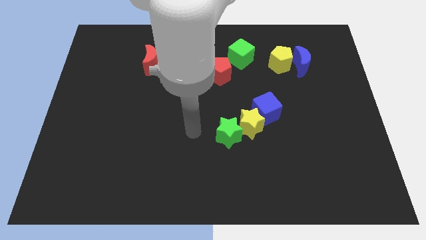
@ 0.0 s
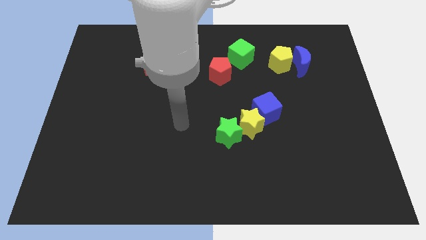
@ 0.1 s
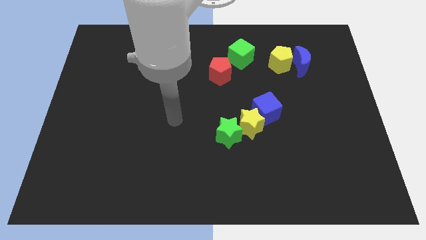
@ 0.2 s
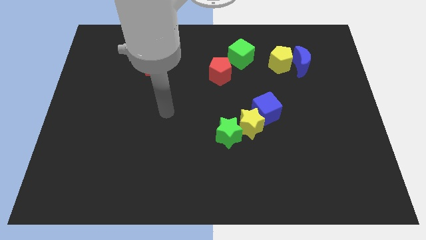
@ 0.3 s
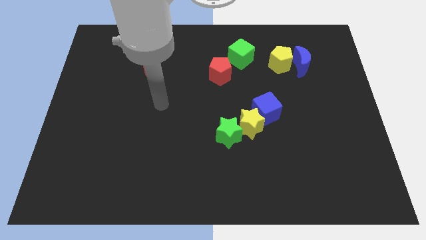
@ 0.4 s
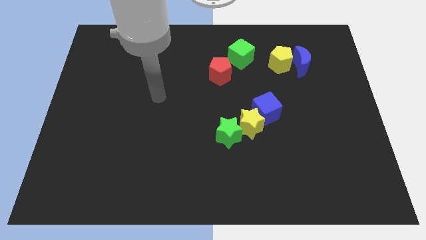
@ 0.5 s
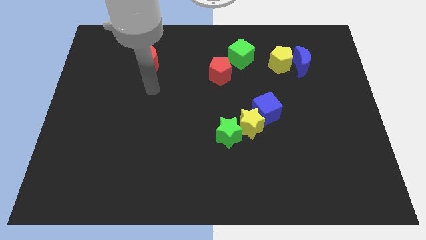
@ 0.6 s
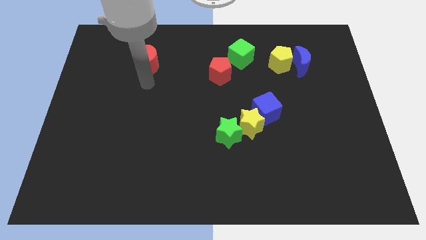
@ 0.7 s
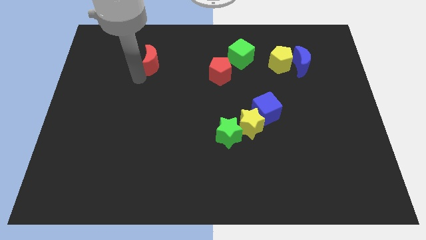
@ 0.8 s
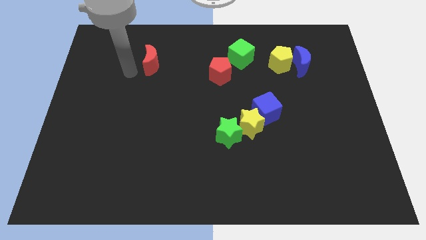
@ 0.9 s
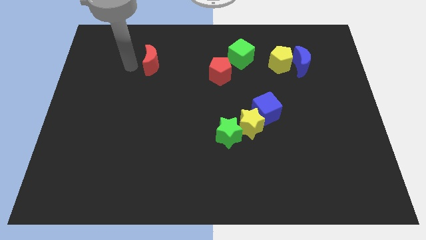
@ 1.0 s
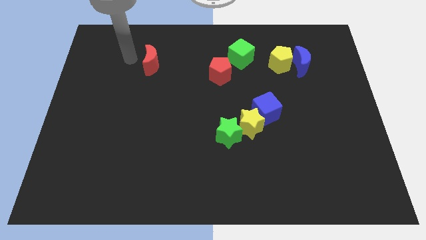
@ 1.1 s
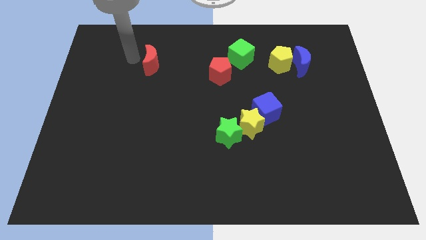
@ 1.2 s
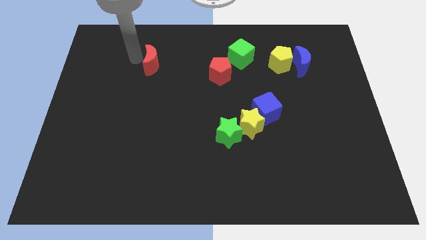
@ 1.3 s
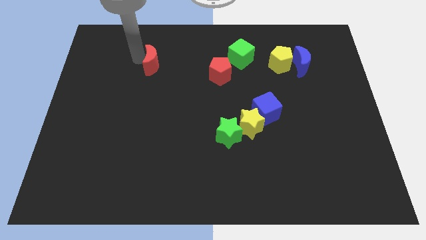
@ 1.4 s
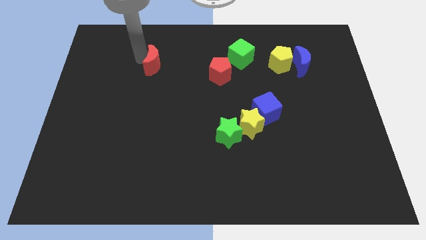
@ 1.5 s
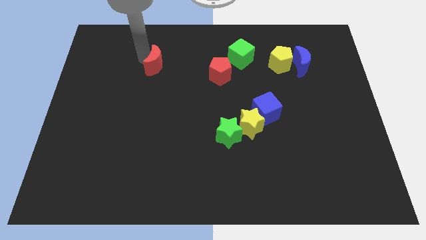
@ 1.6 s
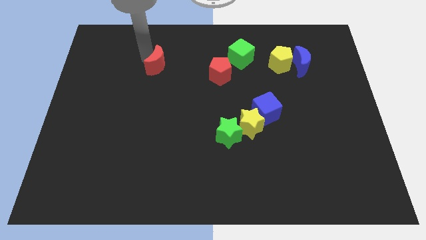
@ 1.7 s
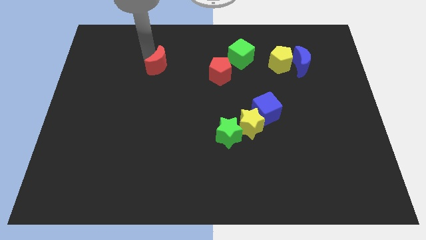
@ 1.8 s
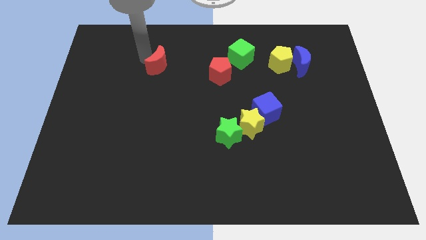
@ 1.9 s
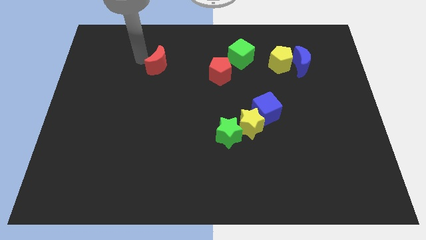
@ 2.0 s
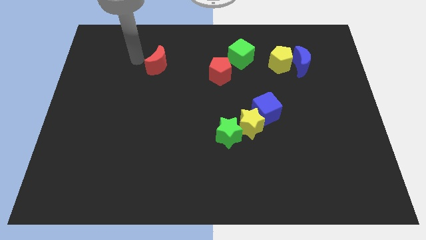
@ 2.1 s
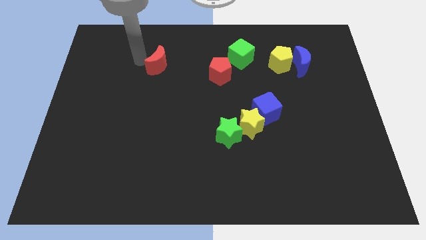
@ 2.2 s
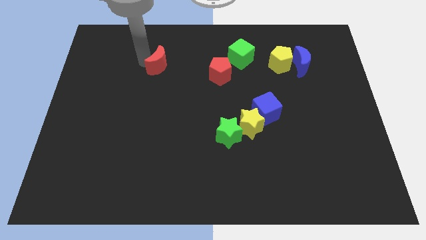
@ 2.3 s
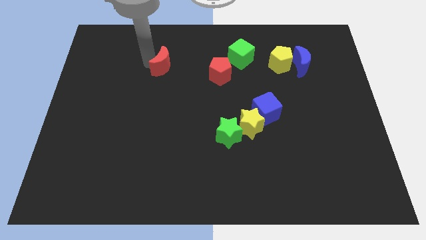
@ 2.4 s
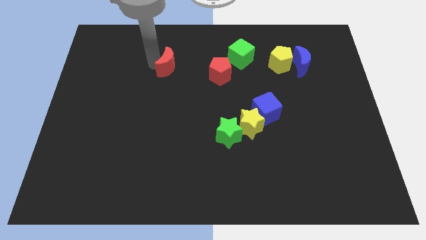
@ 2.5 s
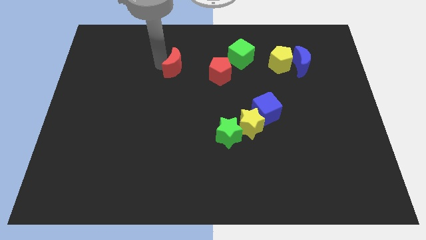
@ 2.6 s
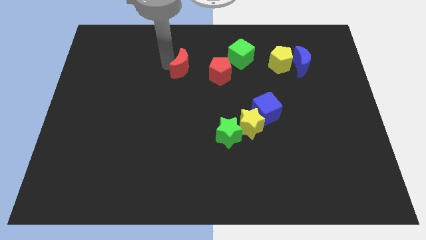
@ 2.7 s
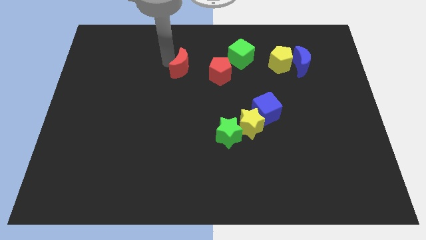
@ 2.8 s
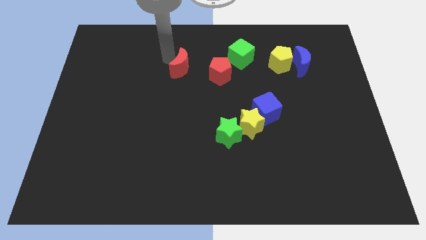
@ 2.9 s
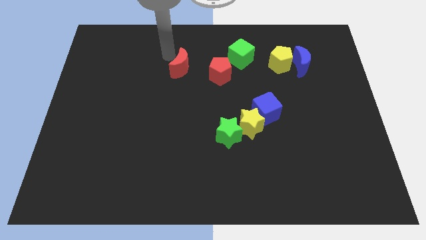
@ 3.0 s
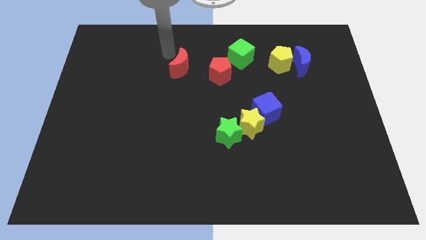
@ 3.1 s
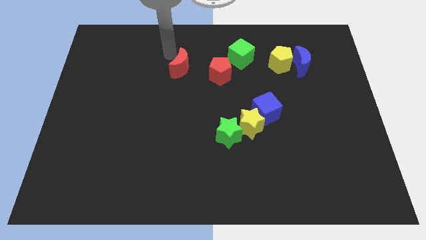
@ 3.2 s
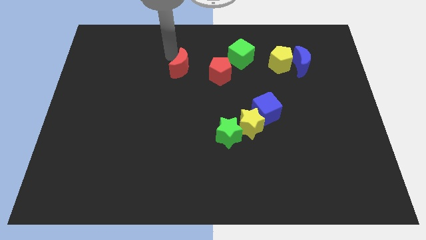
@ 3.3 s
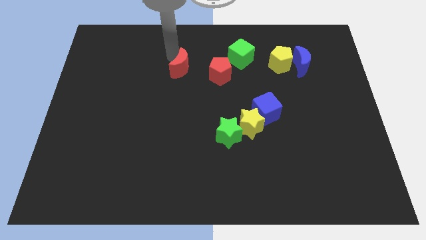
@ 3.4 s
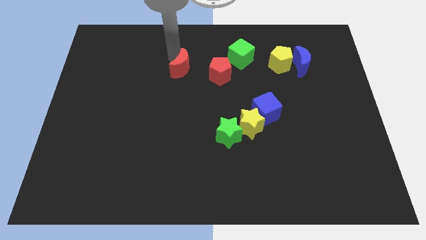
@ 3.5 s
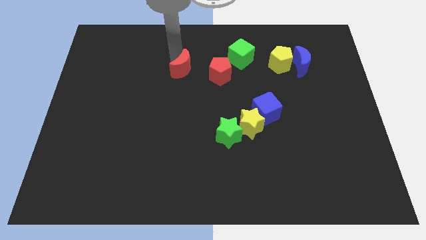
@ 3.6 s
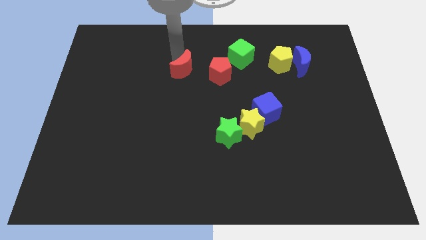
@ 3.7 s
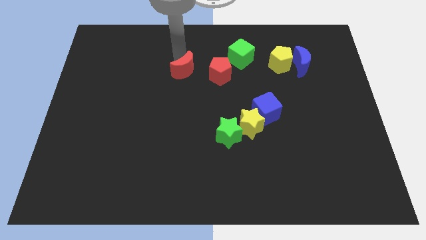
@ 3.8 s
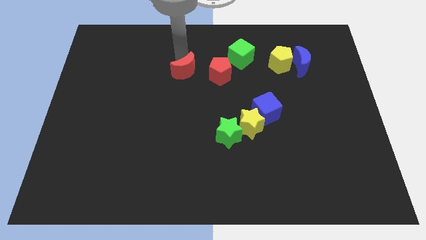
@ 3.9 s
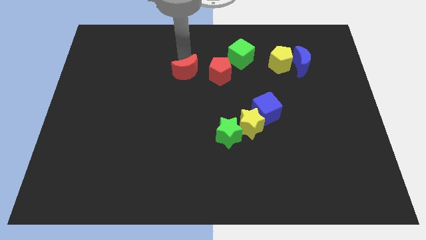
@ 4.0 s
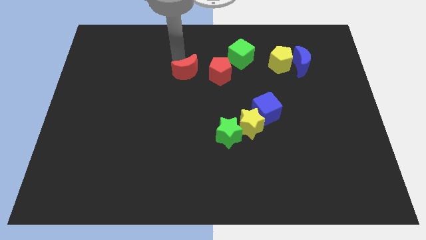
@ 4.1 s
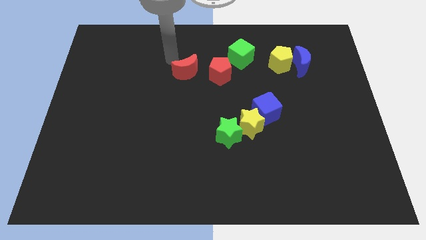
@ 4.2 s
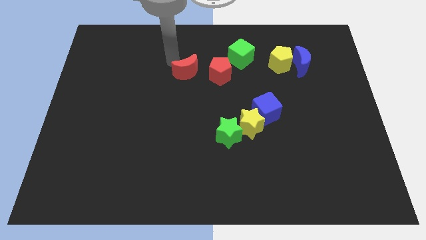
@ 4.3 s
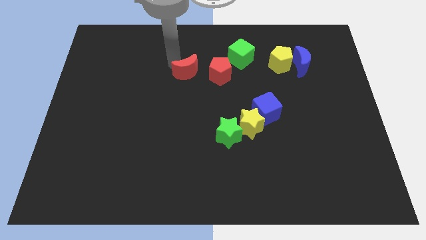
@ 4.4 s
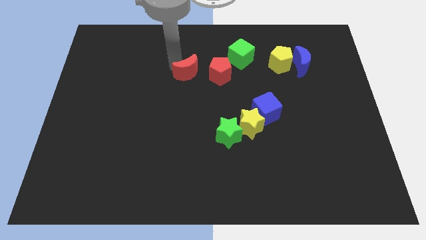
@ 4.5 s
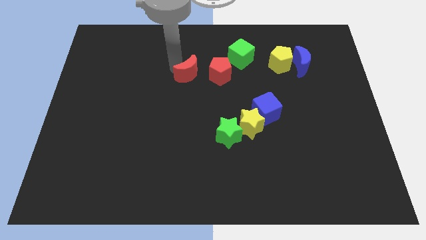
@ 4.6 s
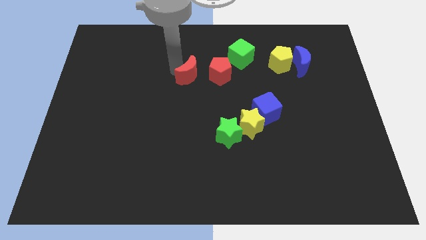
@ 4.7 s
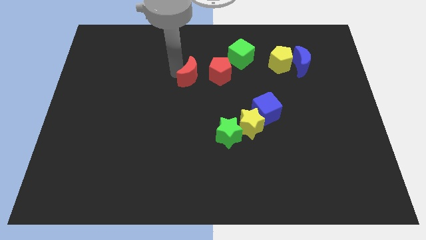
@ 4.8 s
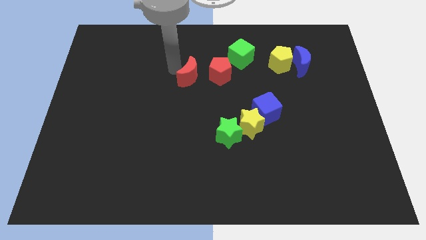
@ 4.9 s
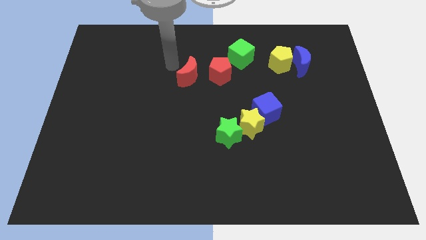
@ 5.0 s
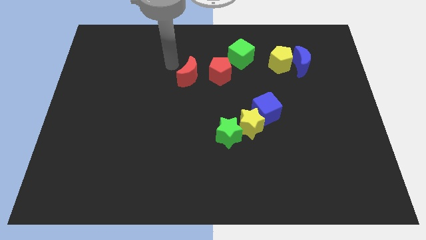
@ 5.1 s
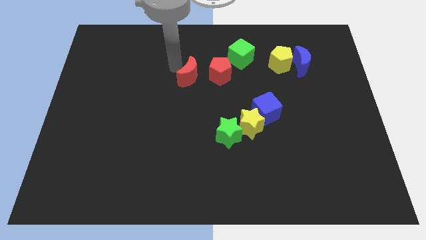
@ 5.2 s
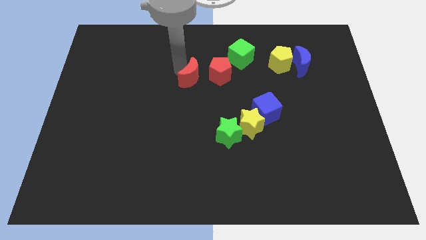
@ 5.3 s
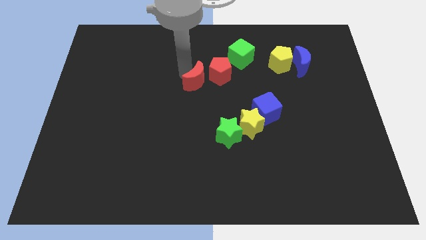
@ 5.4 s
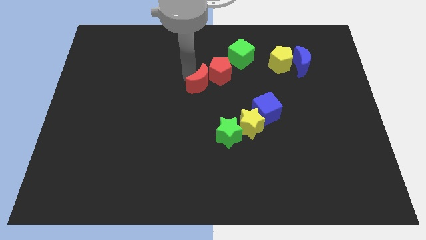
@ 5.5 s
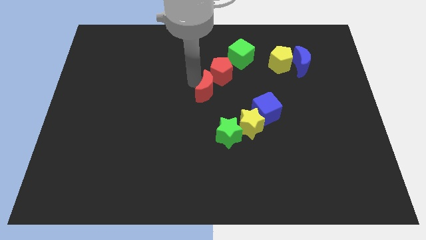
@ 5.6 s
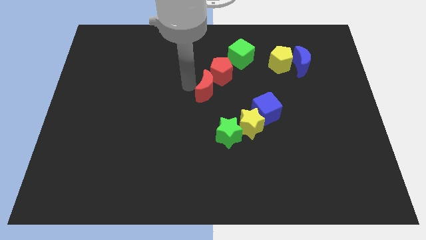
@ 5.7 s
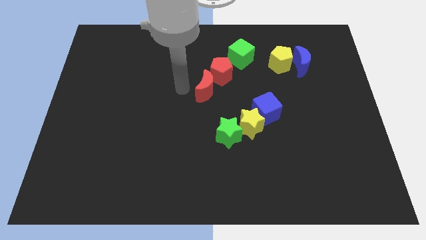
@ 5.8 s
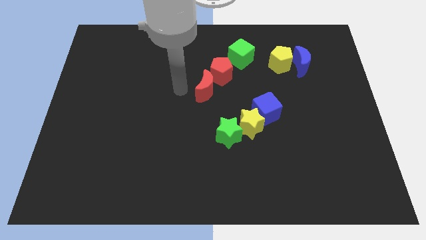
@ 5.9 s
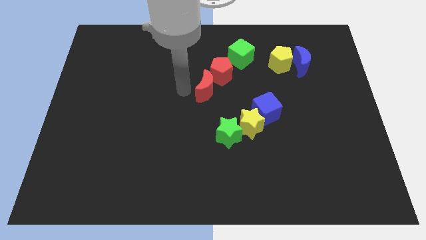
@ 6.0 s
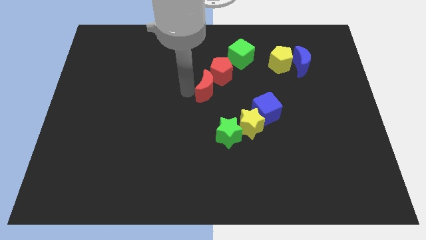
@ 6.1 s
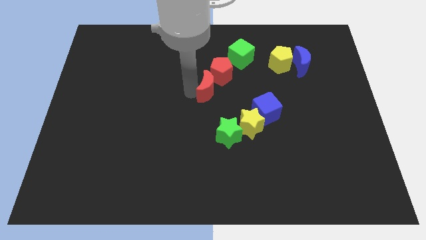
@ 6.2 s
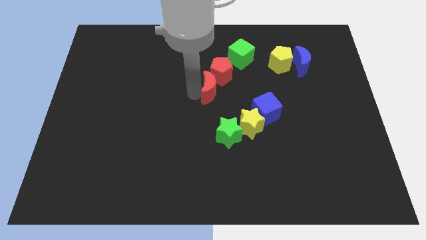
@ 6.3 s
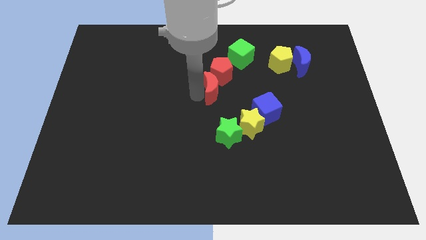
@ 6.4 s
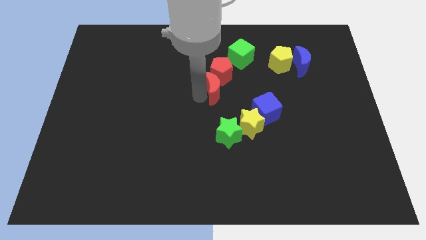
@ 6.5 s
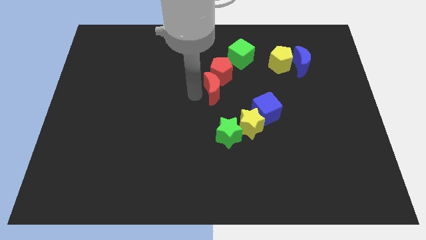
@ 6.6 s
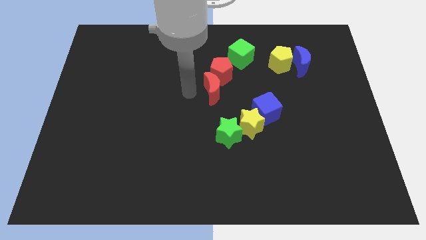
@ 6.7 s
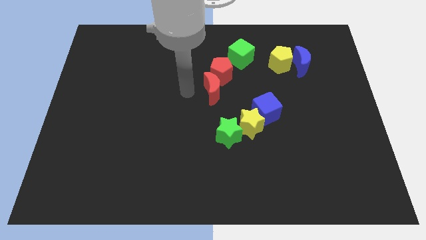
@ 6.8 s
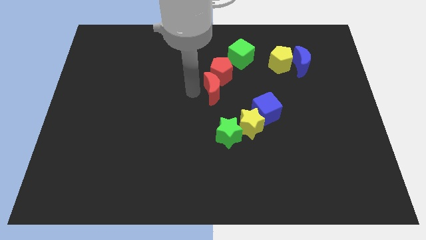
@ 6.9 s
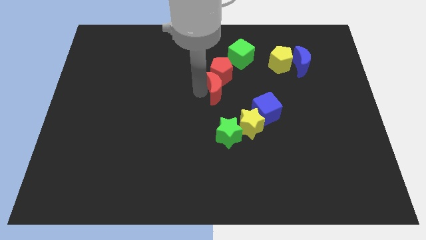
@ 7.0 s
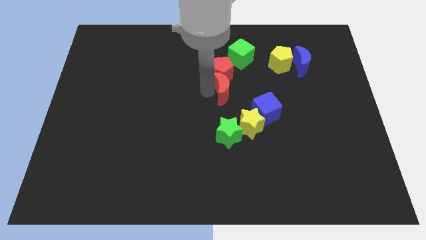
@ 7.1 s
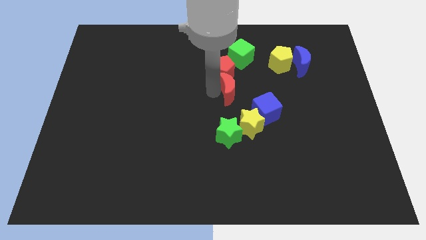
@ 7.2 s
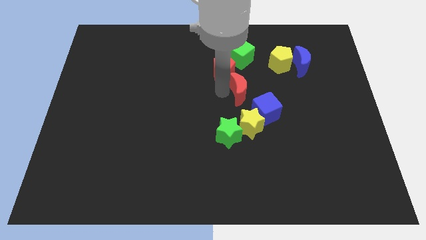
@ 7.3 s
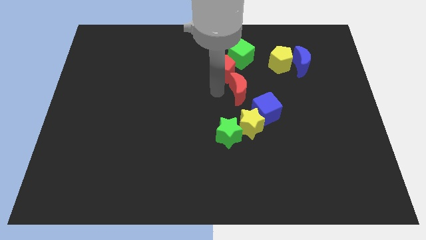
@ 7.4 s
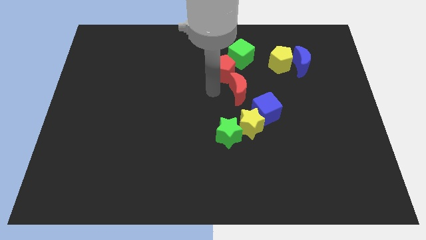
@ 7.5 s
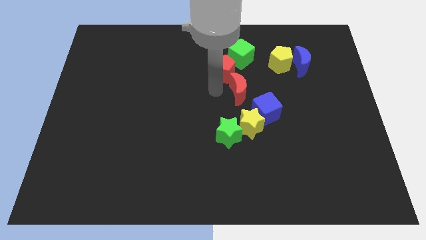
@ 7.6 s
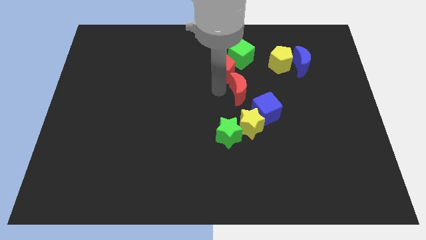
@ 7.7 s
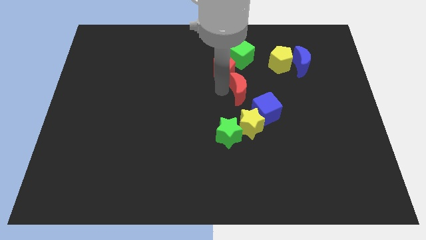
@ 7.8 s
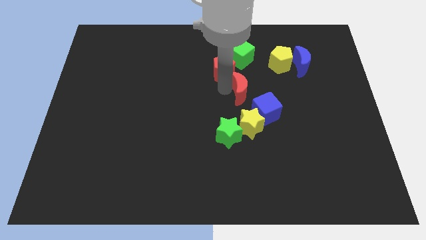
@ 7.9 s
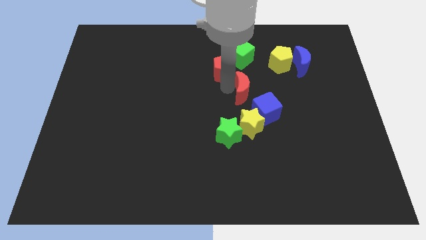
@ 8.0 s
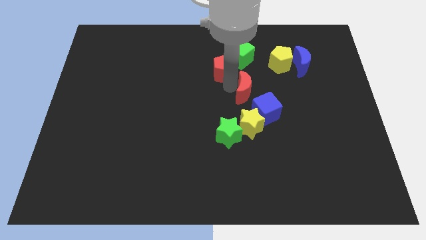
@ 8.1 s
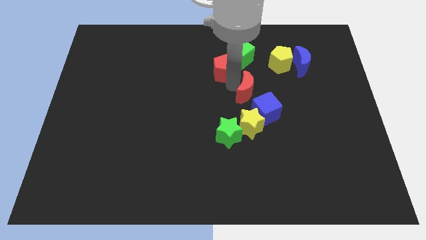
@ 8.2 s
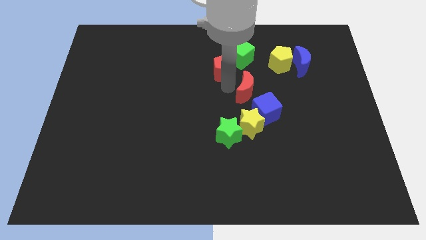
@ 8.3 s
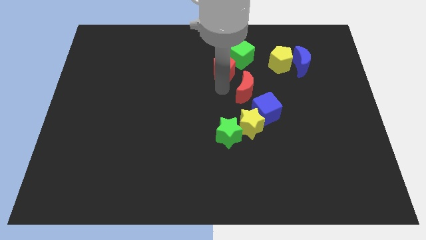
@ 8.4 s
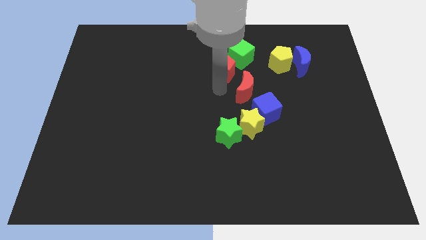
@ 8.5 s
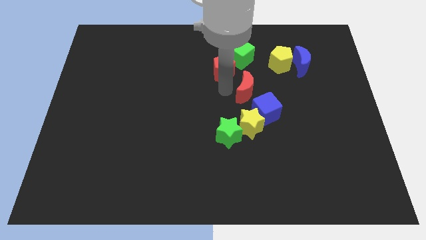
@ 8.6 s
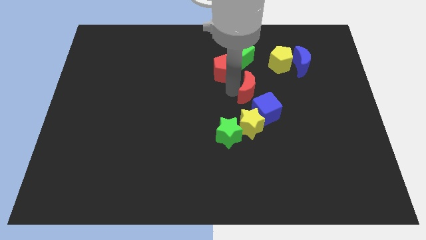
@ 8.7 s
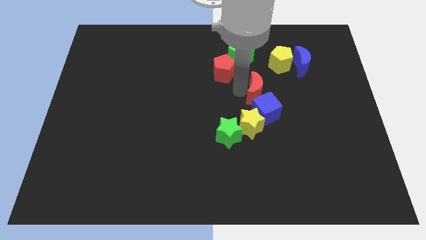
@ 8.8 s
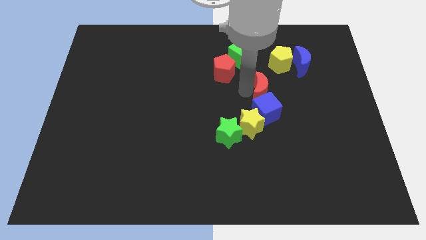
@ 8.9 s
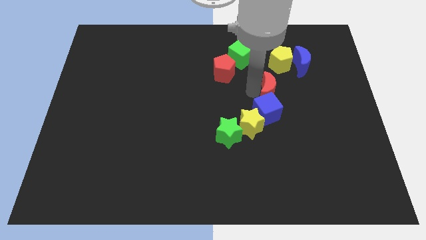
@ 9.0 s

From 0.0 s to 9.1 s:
put the red moon to the bottom side of the yellow pentagon
